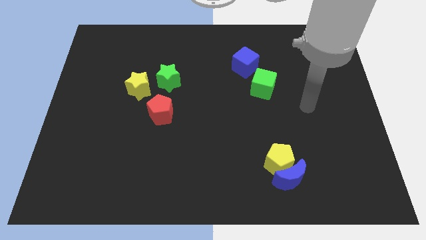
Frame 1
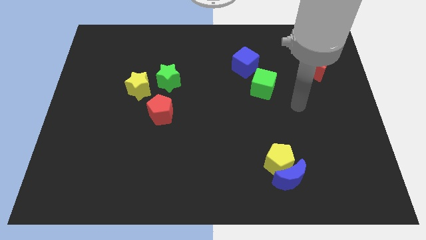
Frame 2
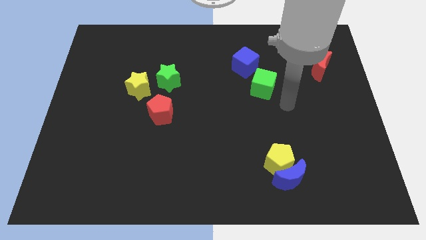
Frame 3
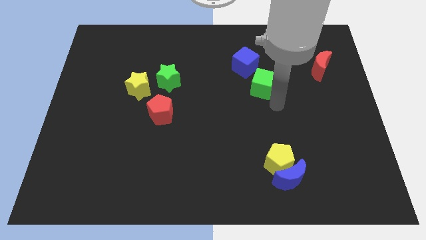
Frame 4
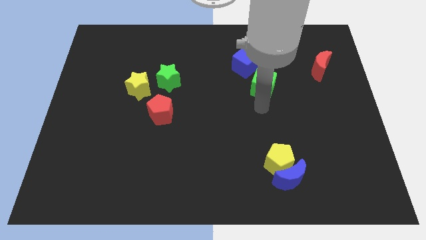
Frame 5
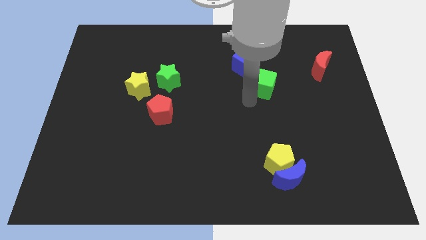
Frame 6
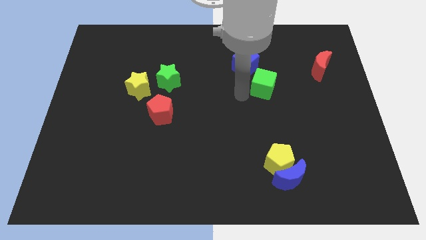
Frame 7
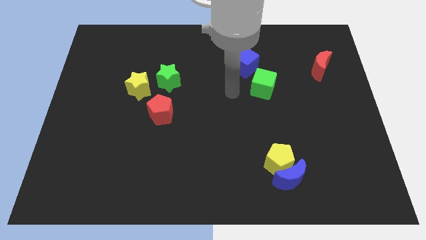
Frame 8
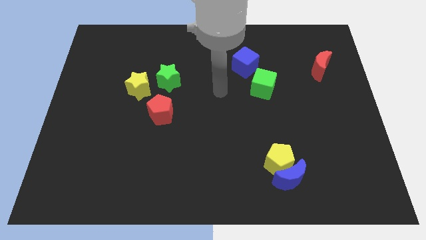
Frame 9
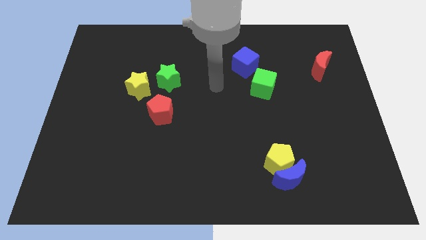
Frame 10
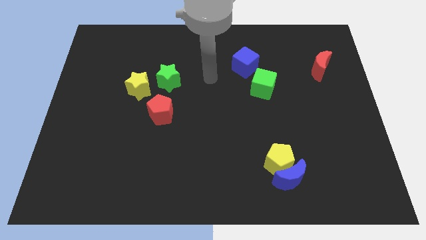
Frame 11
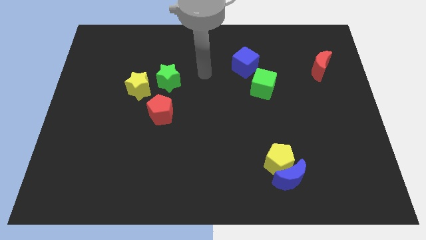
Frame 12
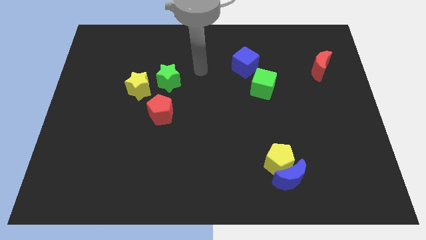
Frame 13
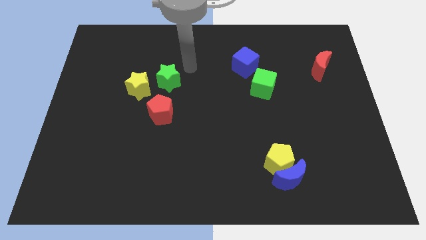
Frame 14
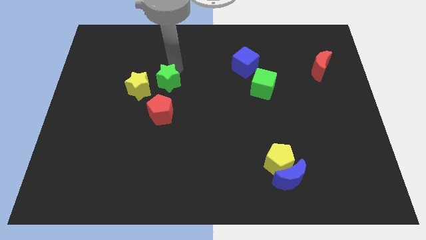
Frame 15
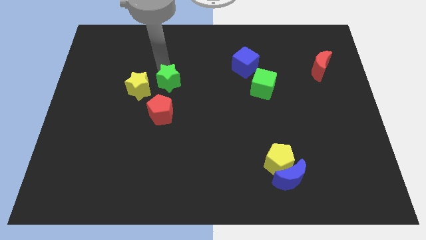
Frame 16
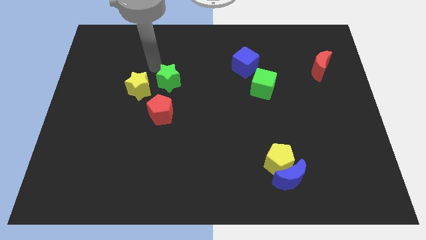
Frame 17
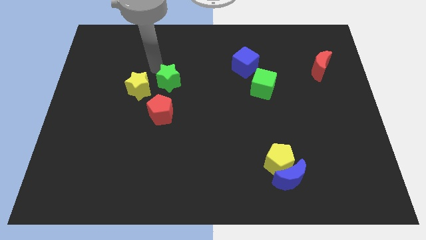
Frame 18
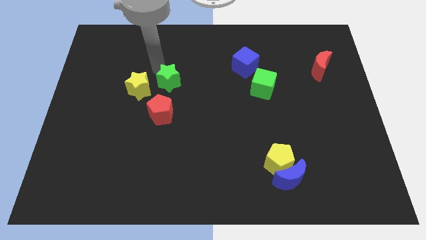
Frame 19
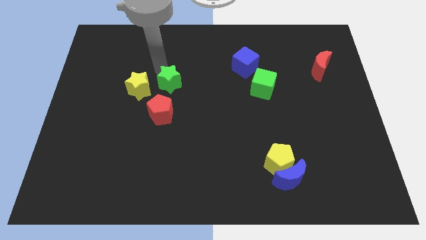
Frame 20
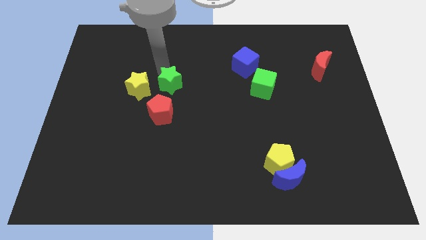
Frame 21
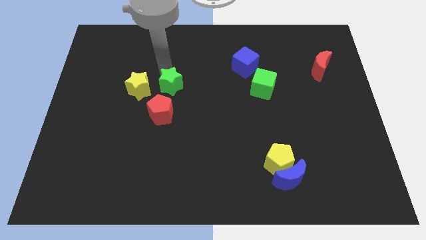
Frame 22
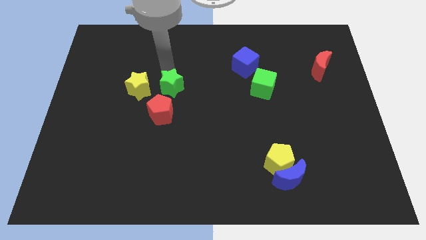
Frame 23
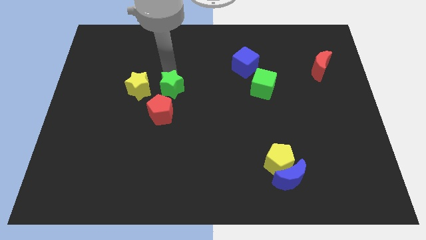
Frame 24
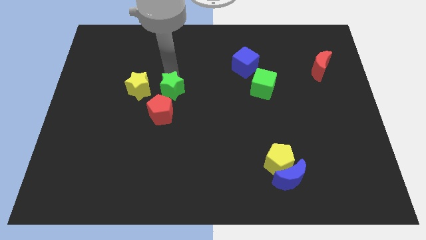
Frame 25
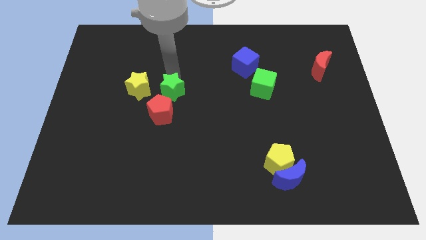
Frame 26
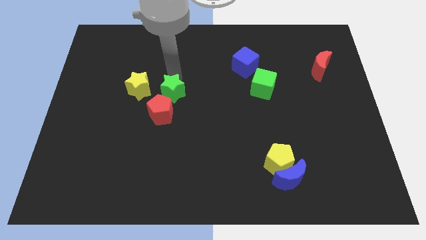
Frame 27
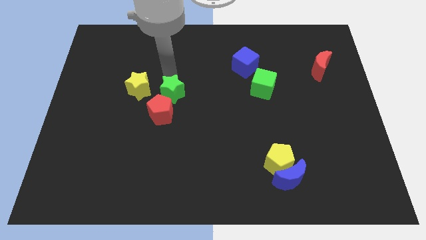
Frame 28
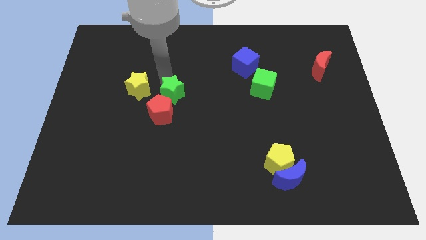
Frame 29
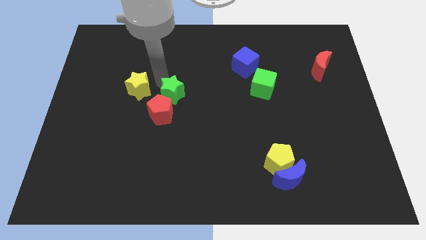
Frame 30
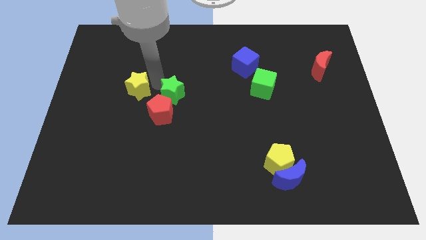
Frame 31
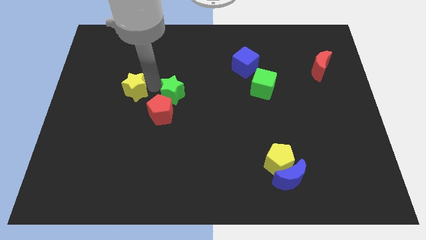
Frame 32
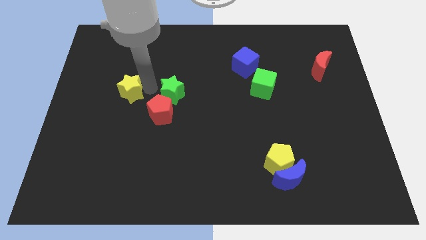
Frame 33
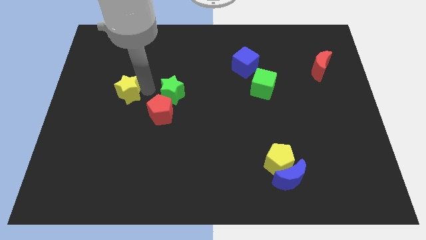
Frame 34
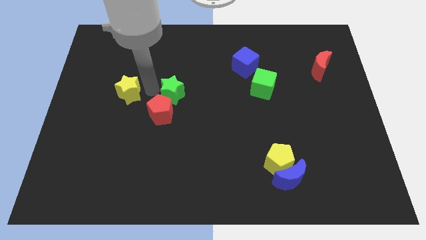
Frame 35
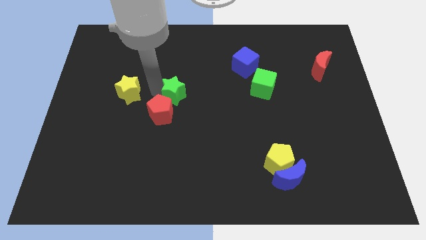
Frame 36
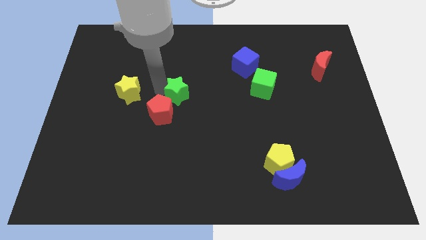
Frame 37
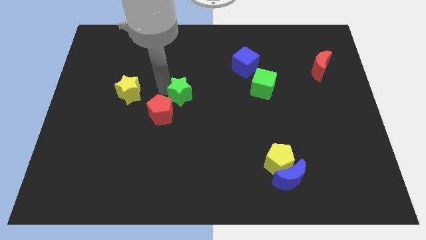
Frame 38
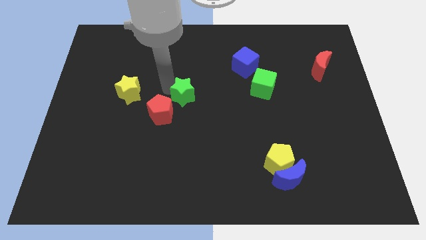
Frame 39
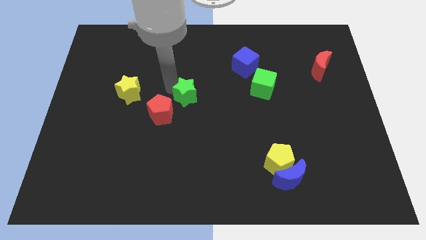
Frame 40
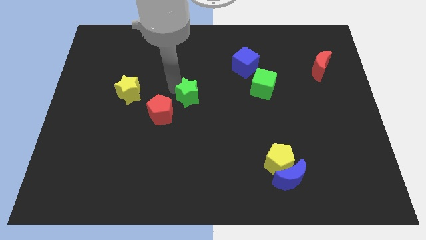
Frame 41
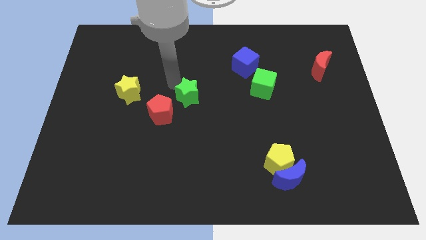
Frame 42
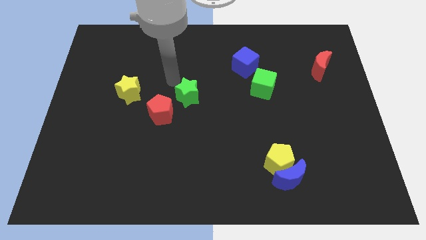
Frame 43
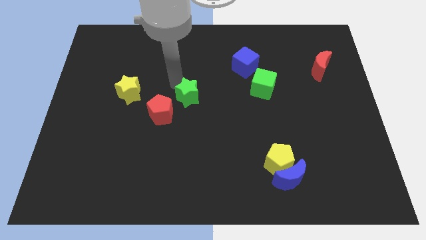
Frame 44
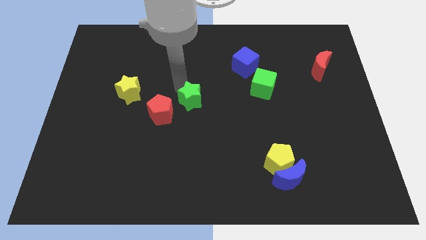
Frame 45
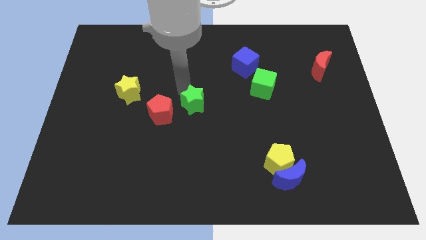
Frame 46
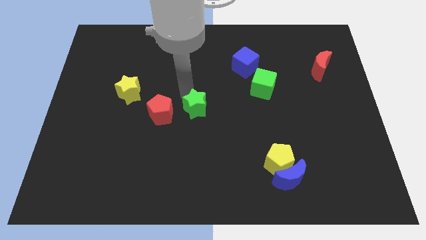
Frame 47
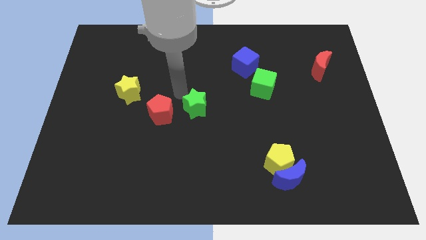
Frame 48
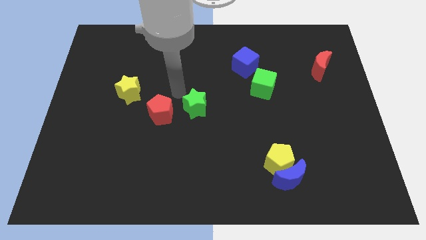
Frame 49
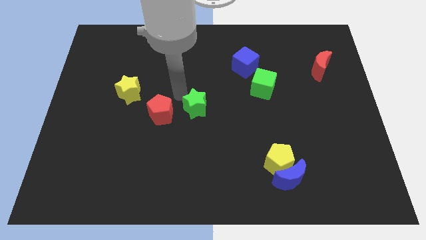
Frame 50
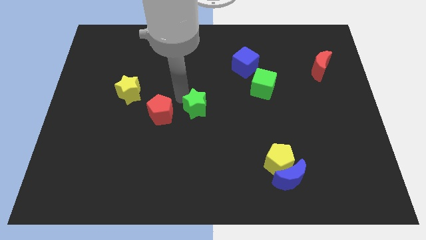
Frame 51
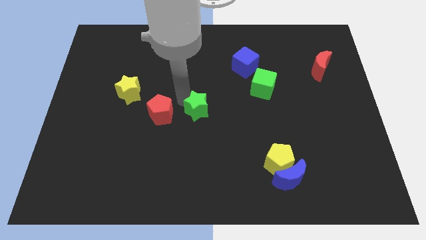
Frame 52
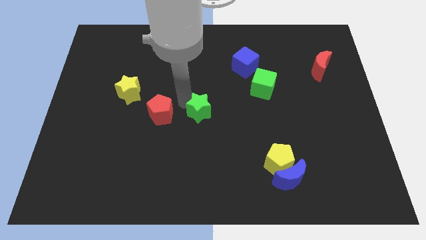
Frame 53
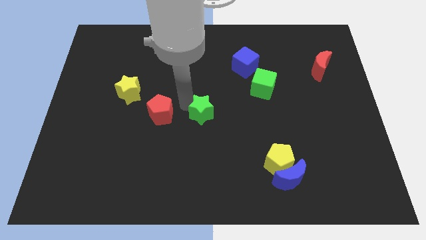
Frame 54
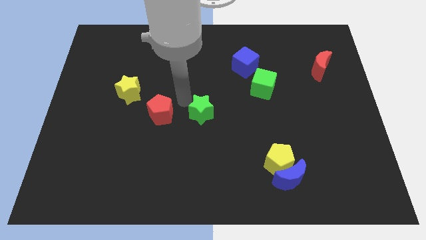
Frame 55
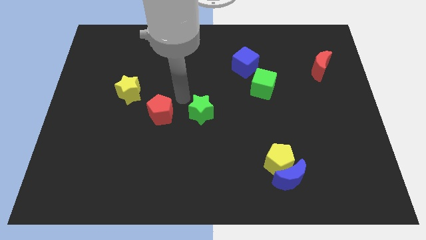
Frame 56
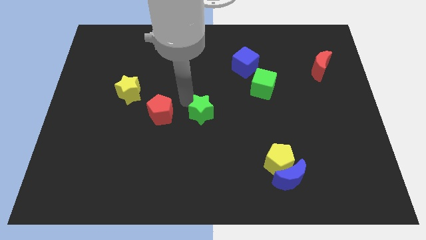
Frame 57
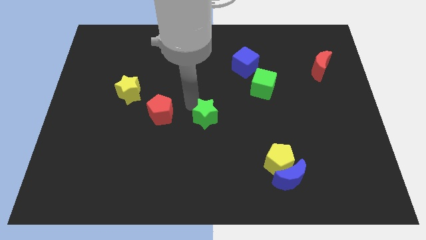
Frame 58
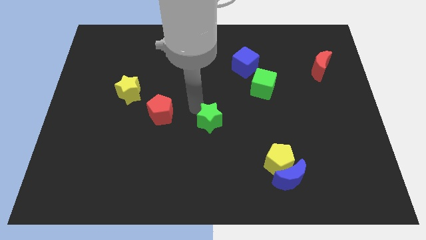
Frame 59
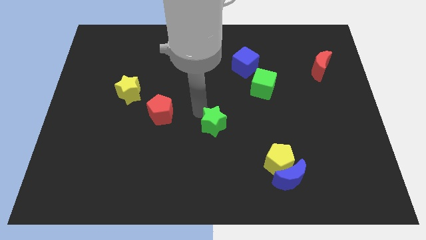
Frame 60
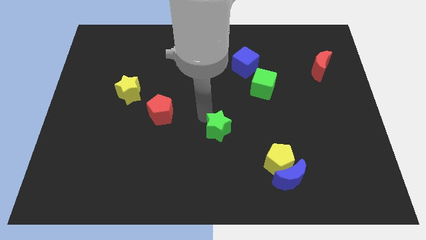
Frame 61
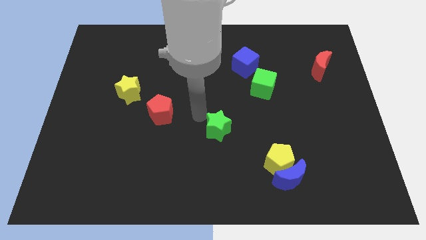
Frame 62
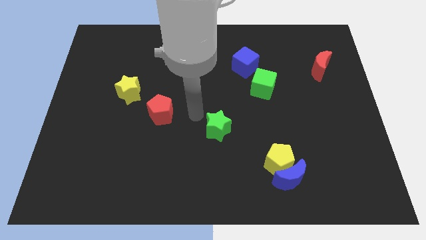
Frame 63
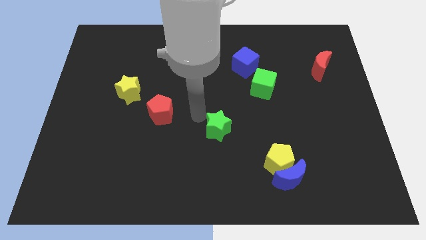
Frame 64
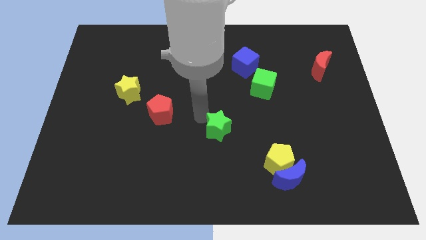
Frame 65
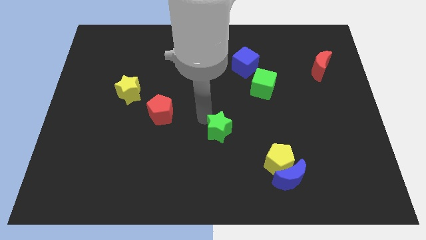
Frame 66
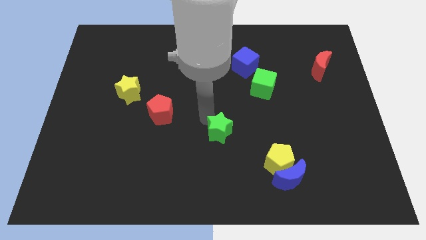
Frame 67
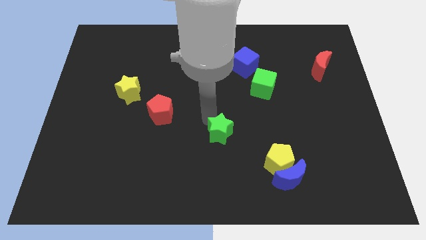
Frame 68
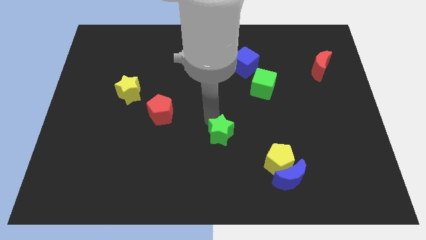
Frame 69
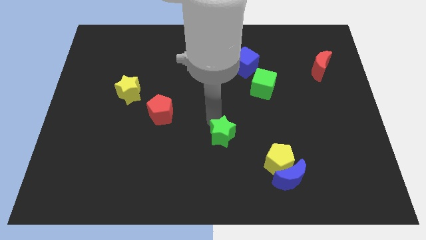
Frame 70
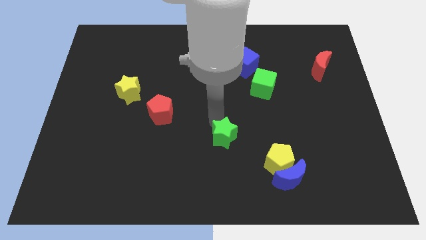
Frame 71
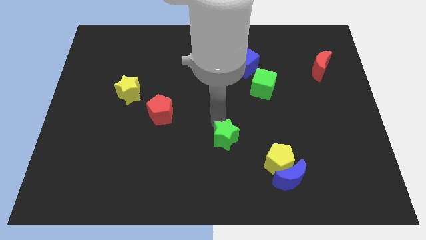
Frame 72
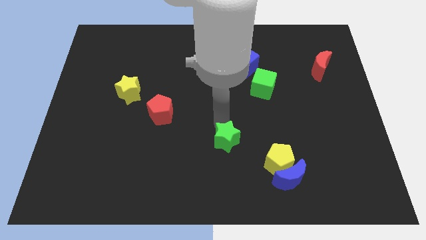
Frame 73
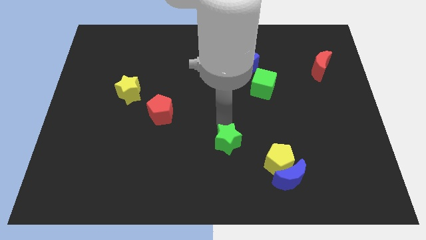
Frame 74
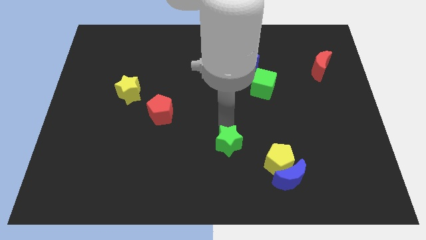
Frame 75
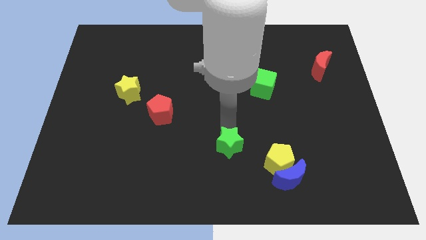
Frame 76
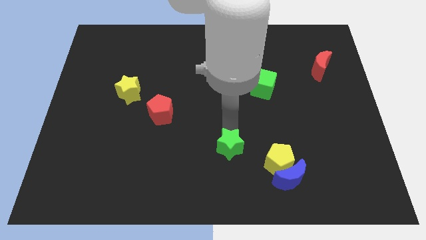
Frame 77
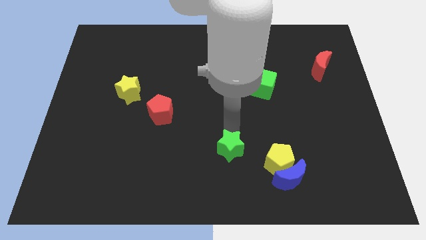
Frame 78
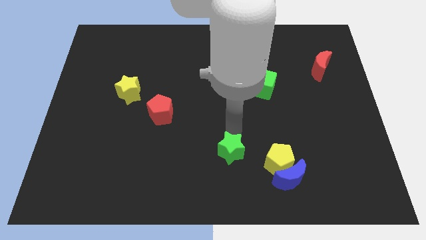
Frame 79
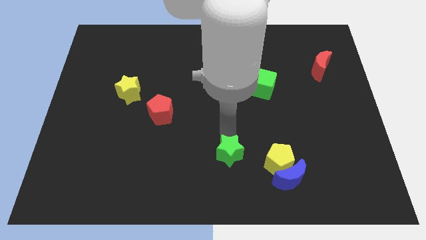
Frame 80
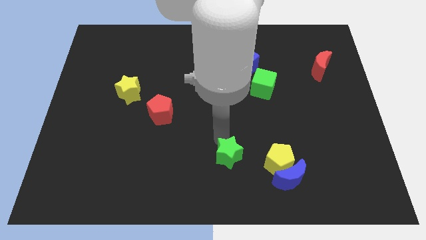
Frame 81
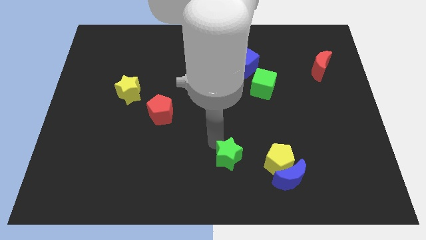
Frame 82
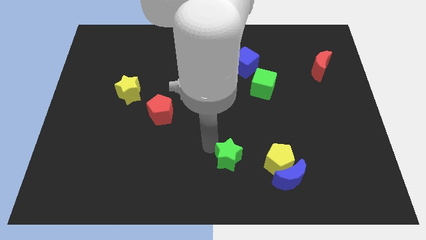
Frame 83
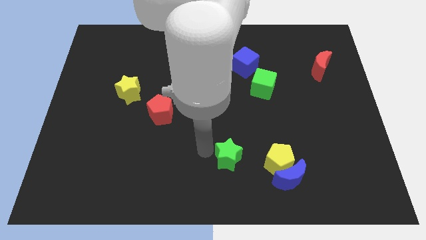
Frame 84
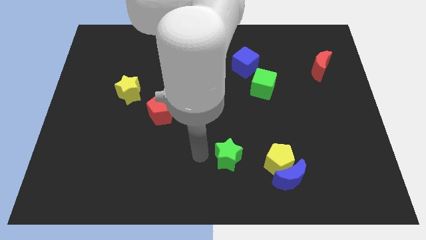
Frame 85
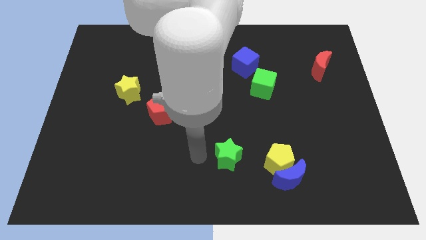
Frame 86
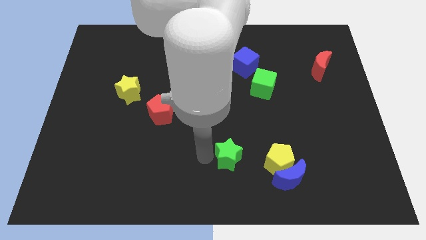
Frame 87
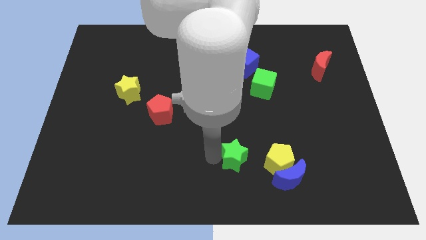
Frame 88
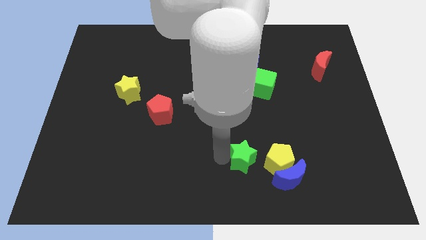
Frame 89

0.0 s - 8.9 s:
put the green star to the top left of the blue moon
